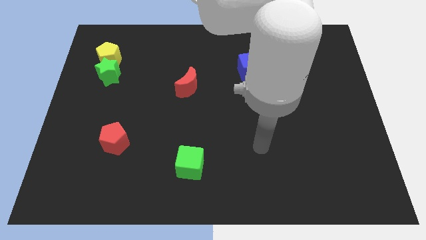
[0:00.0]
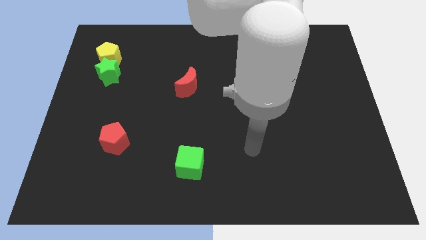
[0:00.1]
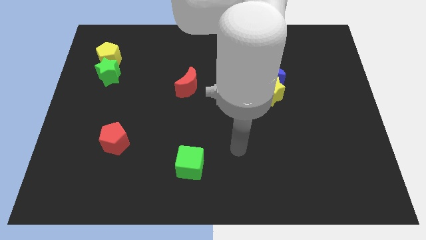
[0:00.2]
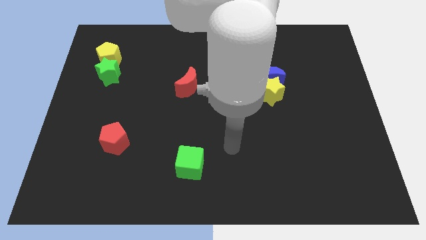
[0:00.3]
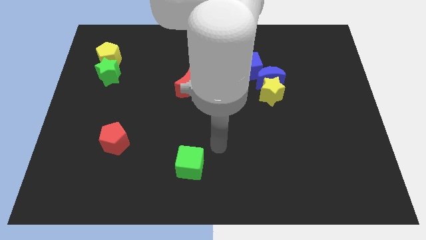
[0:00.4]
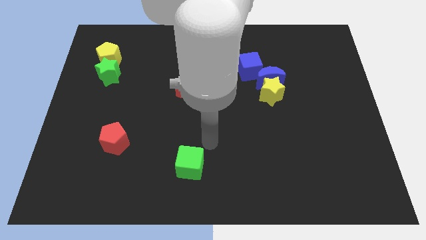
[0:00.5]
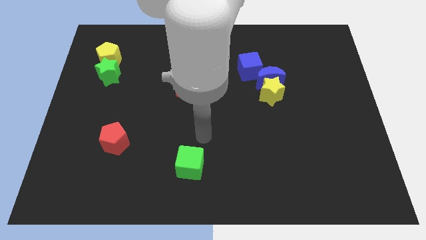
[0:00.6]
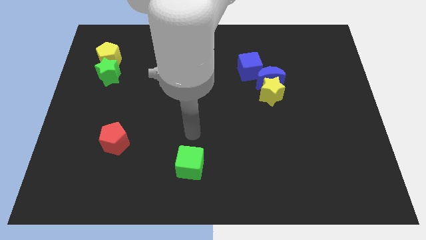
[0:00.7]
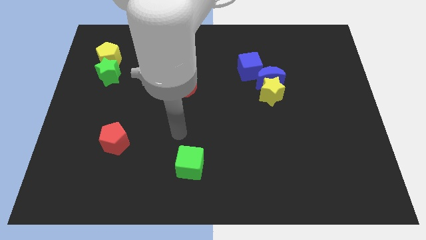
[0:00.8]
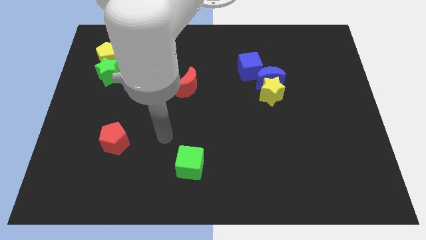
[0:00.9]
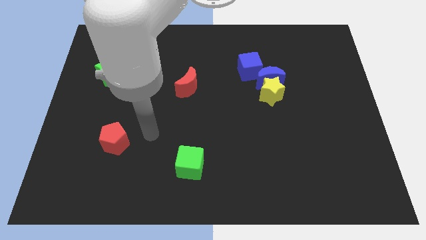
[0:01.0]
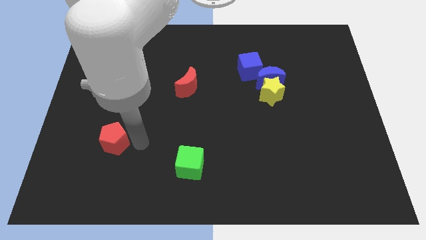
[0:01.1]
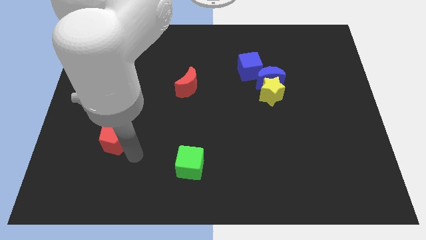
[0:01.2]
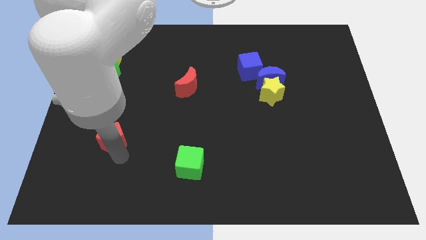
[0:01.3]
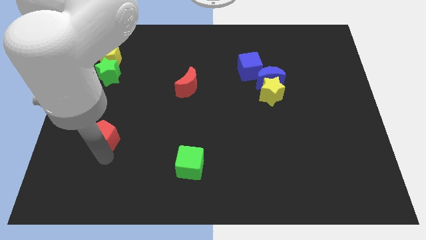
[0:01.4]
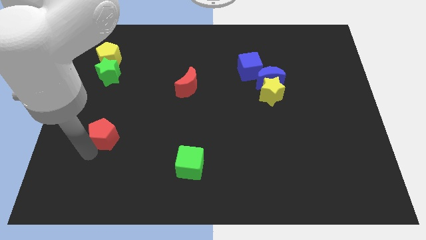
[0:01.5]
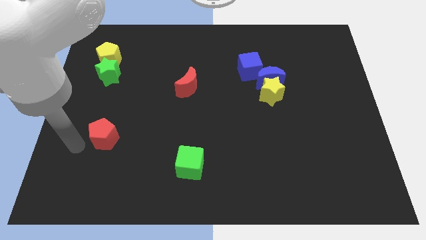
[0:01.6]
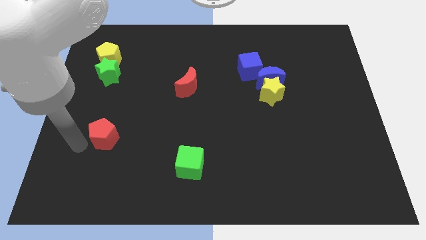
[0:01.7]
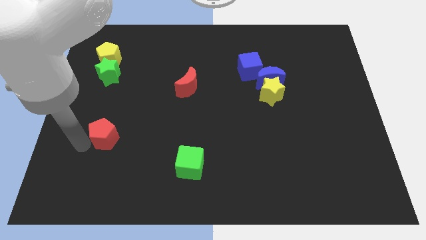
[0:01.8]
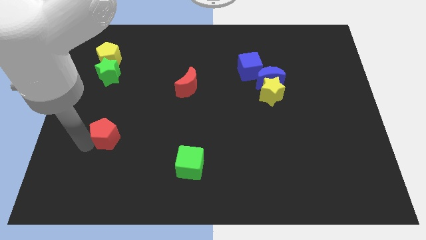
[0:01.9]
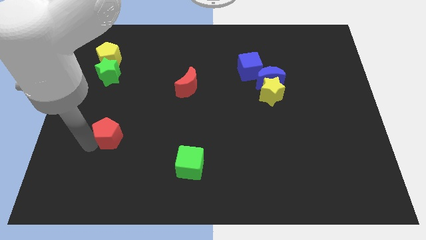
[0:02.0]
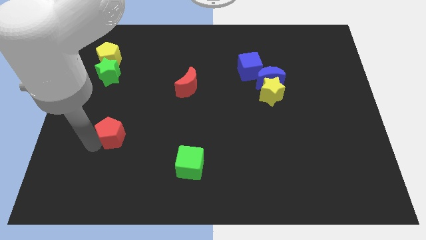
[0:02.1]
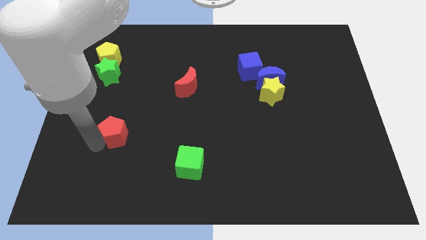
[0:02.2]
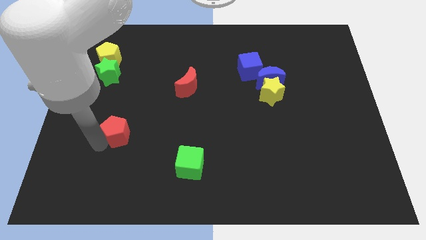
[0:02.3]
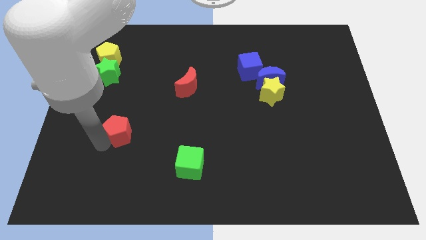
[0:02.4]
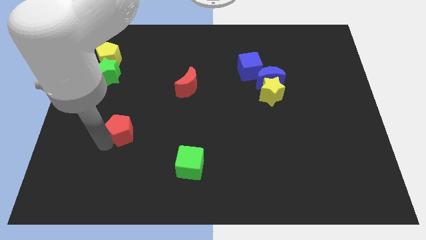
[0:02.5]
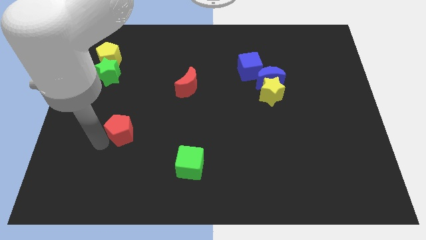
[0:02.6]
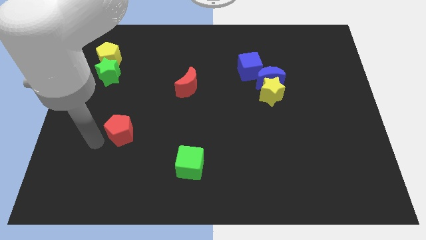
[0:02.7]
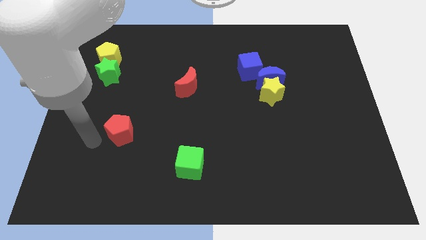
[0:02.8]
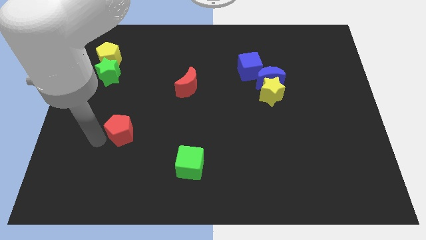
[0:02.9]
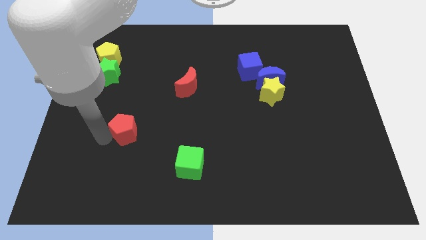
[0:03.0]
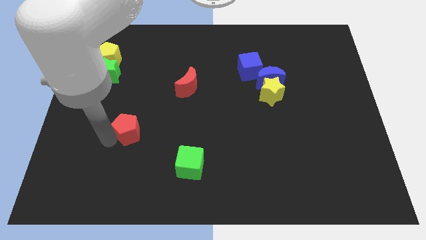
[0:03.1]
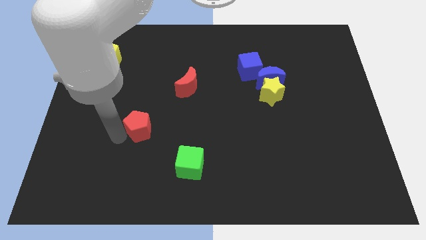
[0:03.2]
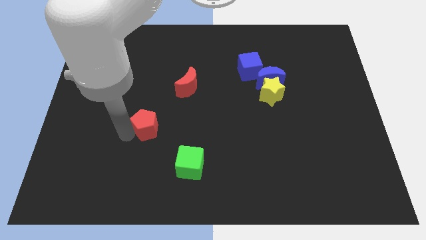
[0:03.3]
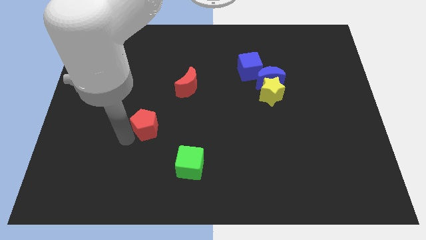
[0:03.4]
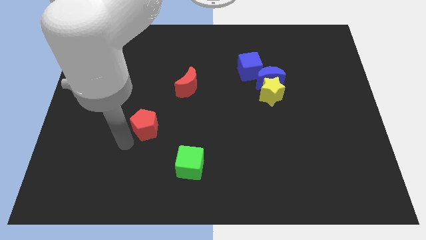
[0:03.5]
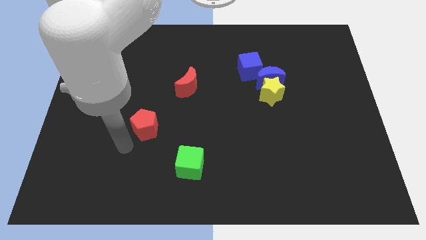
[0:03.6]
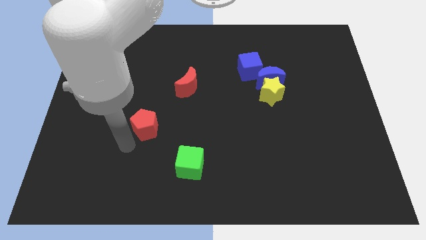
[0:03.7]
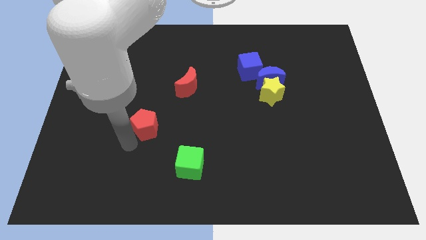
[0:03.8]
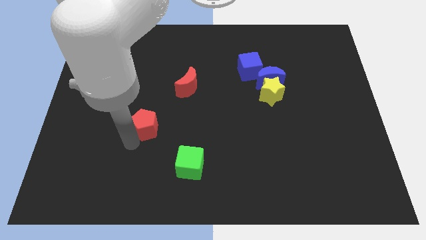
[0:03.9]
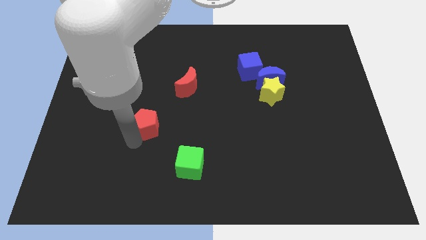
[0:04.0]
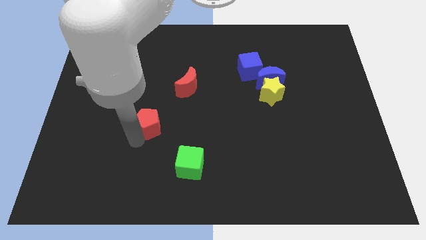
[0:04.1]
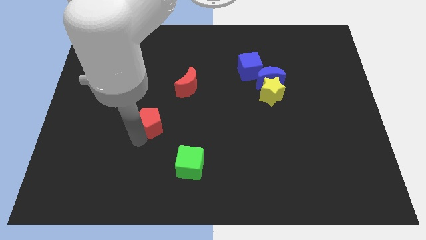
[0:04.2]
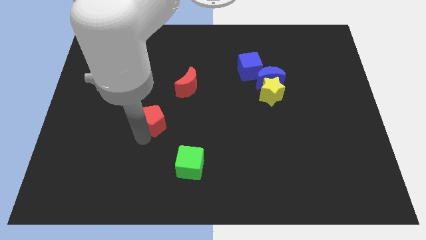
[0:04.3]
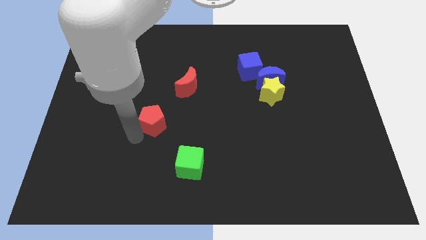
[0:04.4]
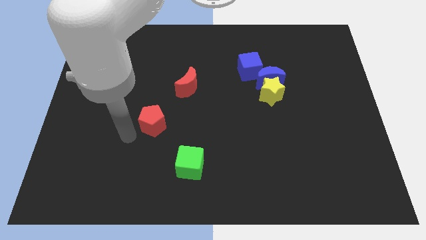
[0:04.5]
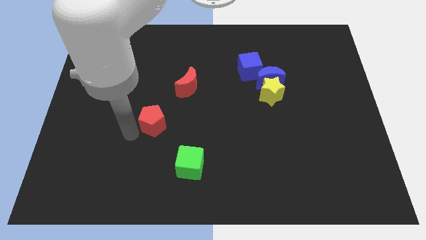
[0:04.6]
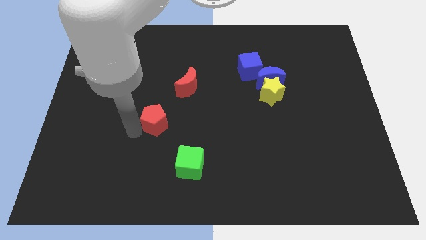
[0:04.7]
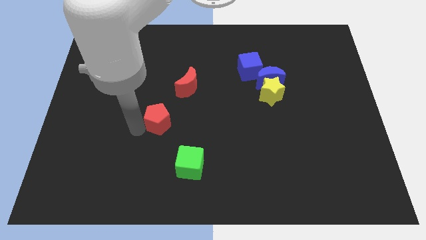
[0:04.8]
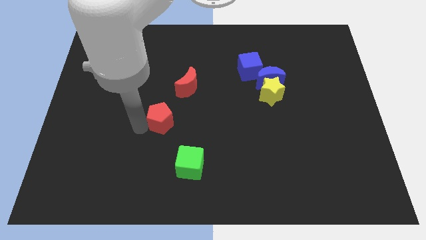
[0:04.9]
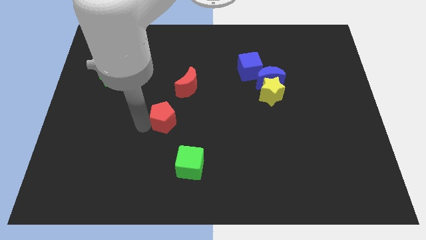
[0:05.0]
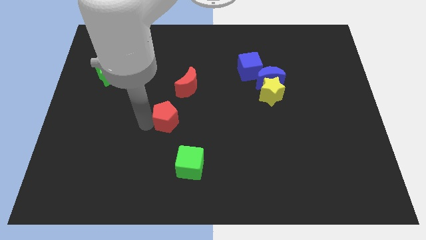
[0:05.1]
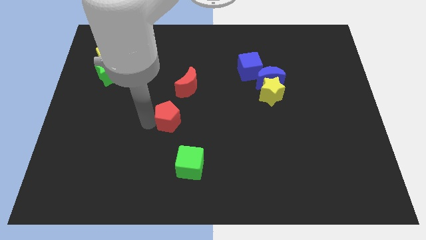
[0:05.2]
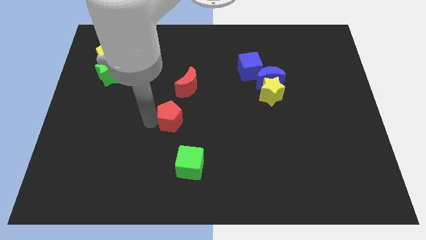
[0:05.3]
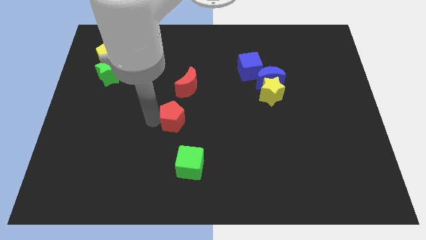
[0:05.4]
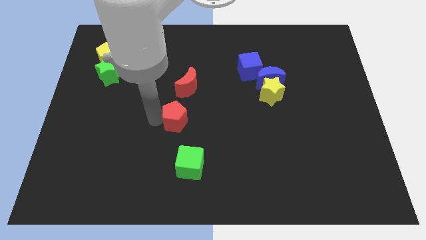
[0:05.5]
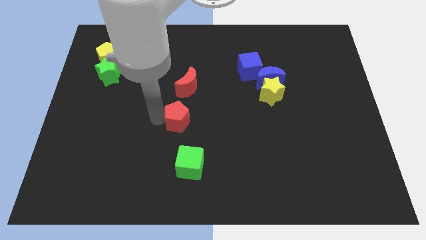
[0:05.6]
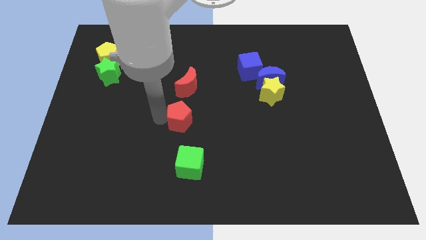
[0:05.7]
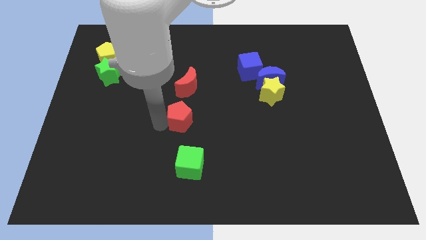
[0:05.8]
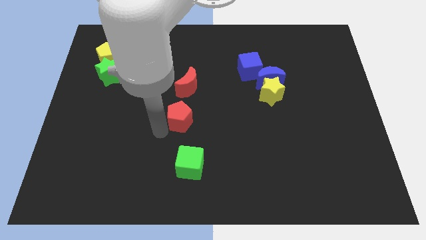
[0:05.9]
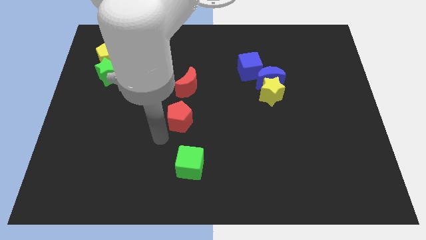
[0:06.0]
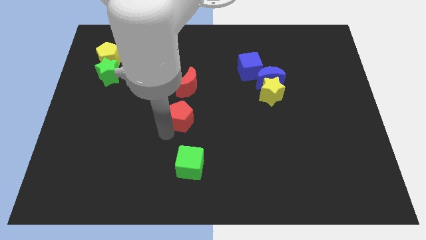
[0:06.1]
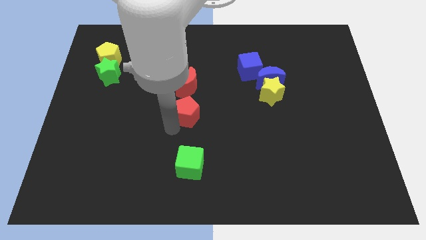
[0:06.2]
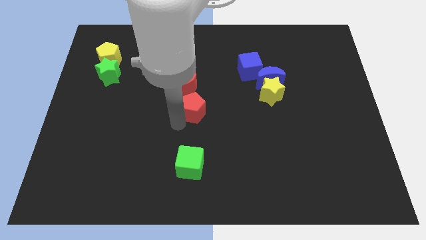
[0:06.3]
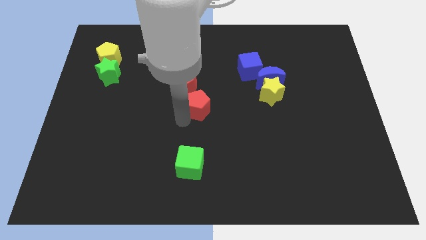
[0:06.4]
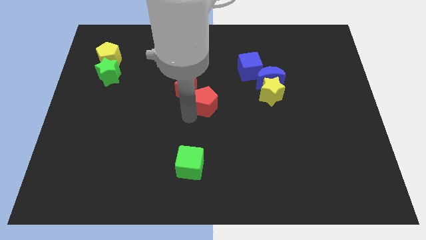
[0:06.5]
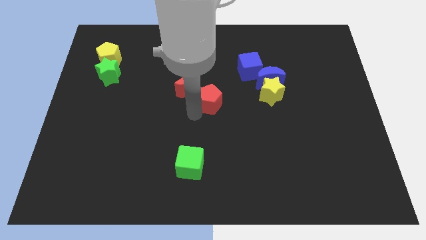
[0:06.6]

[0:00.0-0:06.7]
slide the red pentagon diagonally up and to the right

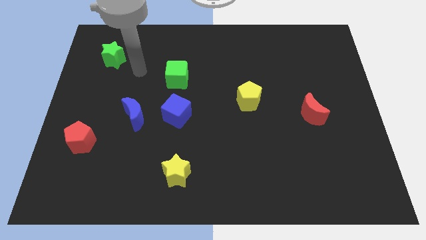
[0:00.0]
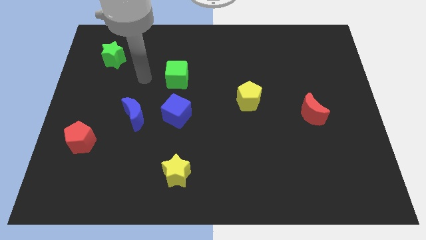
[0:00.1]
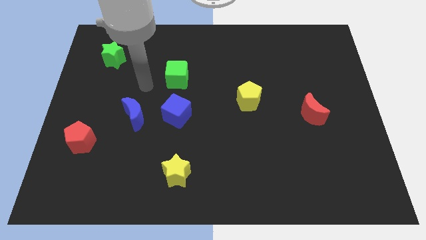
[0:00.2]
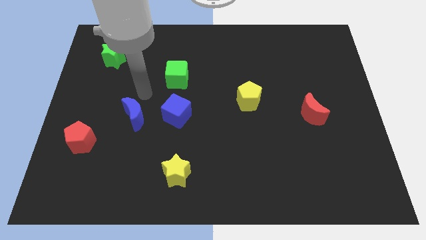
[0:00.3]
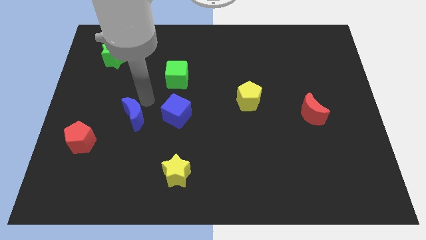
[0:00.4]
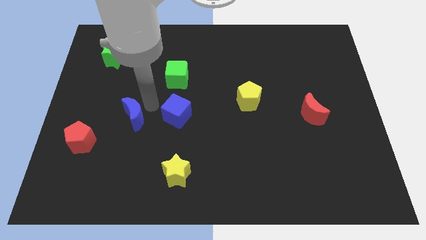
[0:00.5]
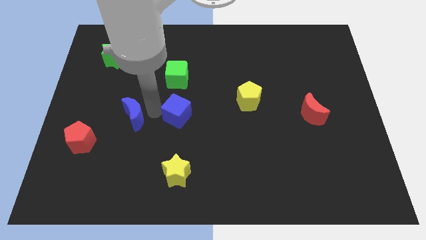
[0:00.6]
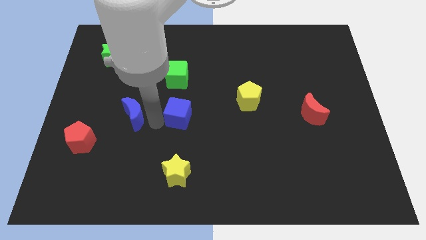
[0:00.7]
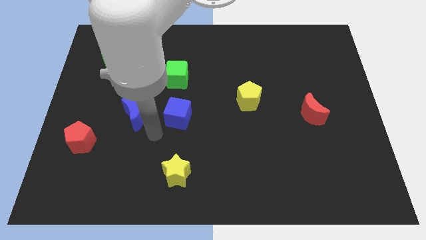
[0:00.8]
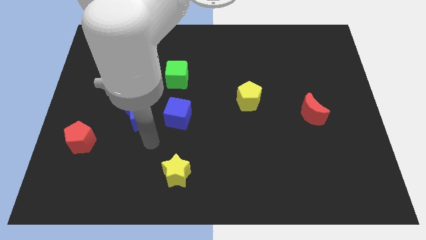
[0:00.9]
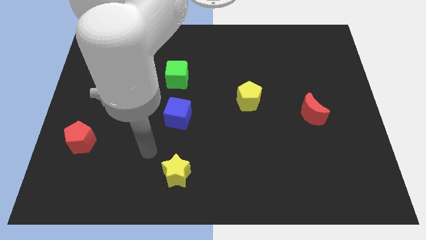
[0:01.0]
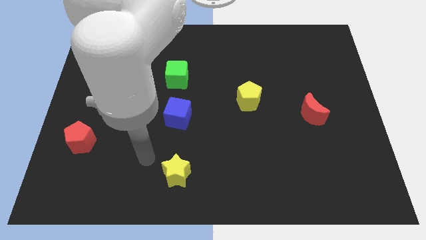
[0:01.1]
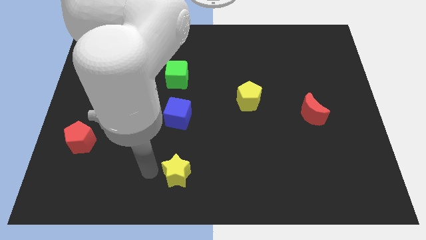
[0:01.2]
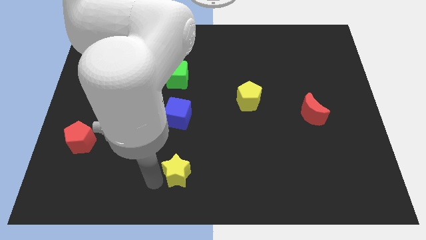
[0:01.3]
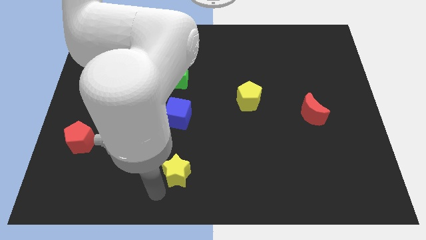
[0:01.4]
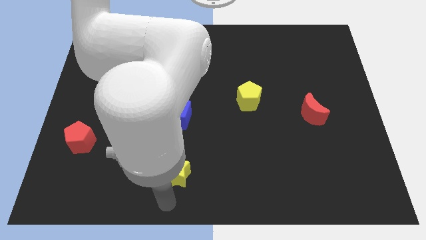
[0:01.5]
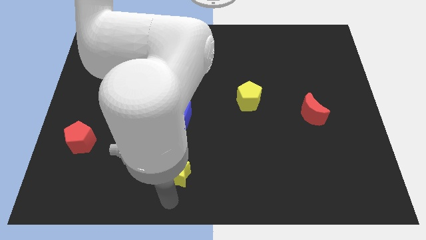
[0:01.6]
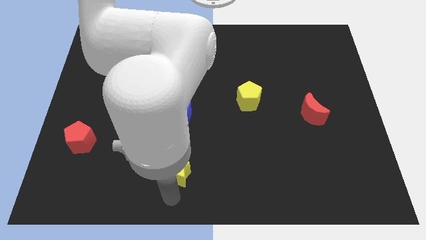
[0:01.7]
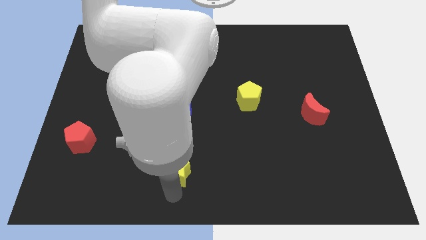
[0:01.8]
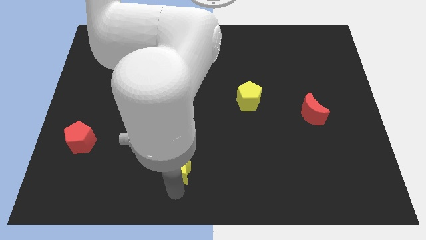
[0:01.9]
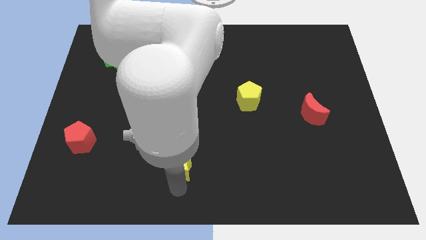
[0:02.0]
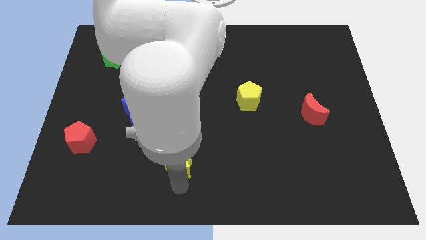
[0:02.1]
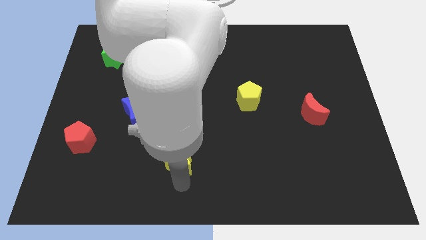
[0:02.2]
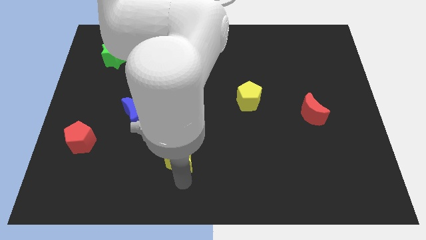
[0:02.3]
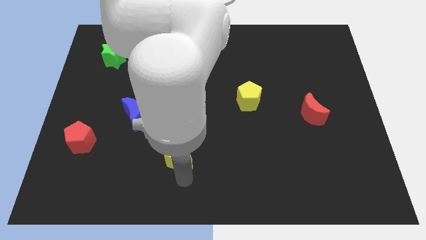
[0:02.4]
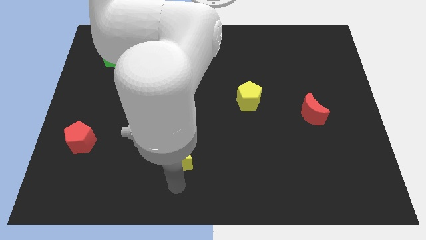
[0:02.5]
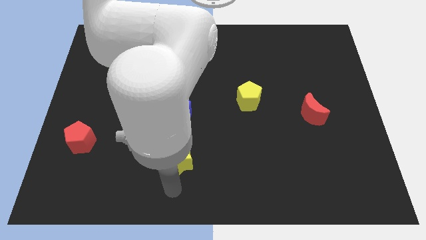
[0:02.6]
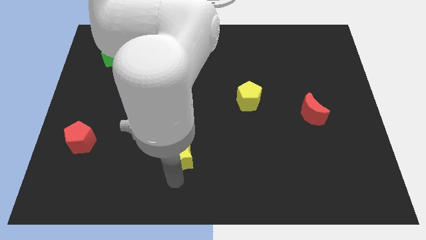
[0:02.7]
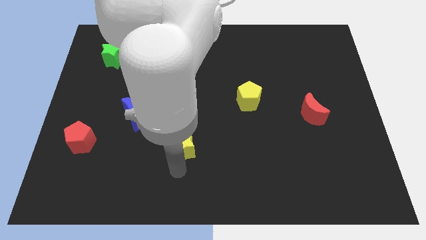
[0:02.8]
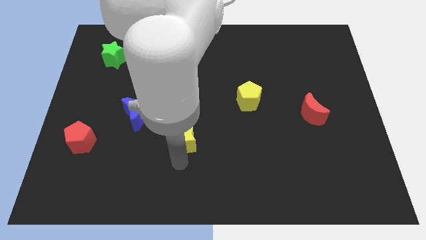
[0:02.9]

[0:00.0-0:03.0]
slightly push the yellow star upwards
